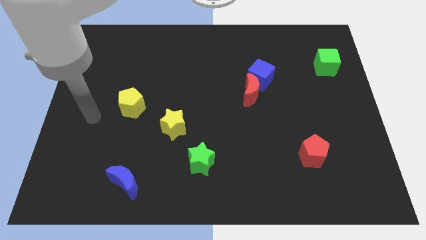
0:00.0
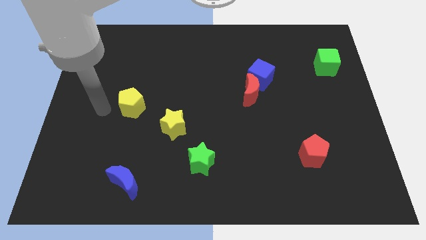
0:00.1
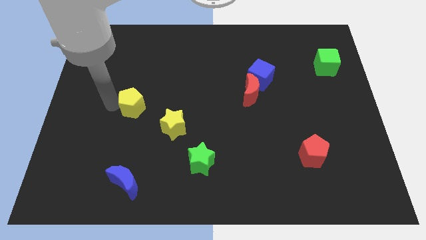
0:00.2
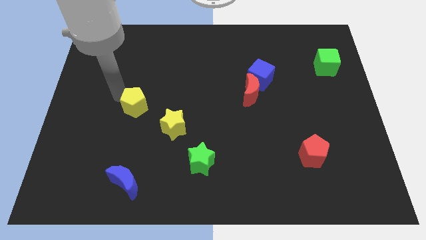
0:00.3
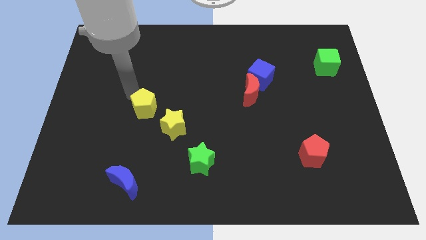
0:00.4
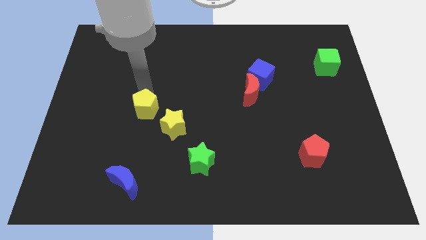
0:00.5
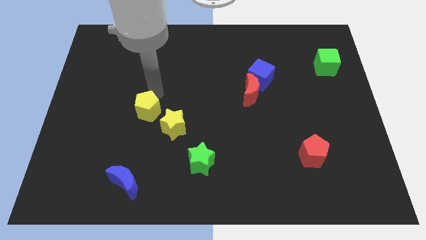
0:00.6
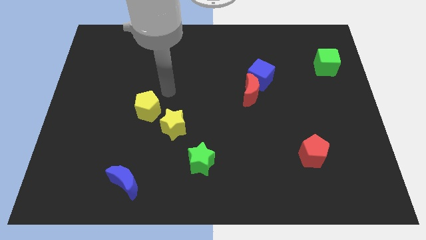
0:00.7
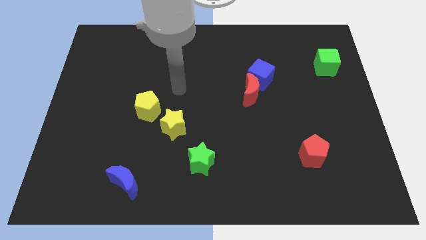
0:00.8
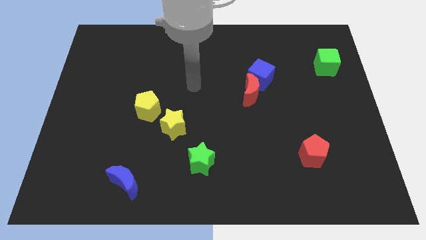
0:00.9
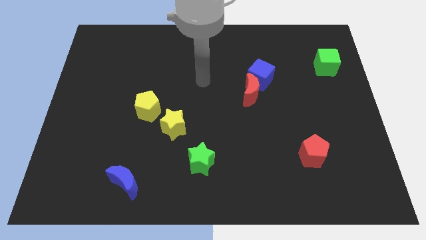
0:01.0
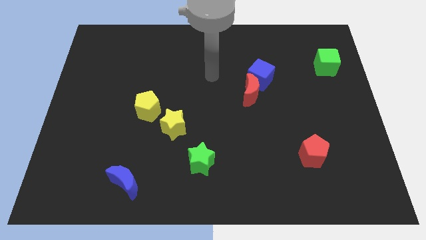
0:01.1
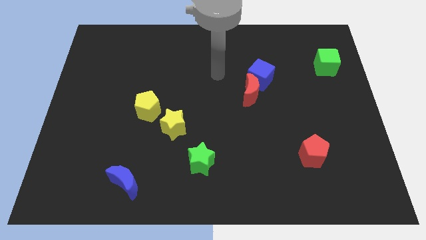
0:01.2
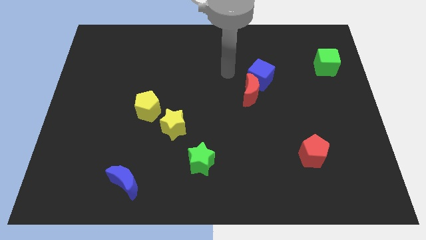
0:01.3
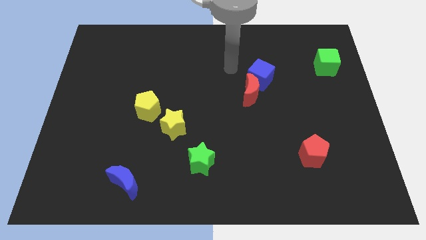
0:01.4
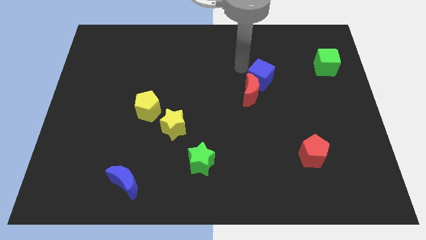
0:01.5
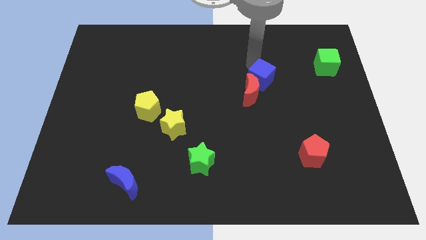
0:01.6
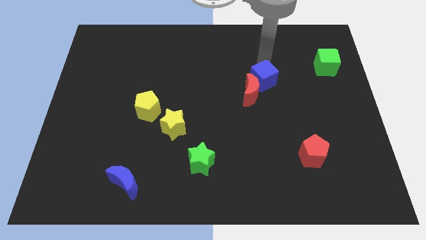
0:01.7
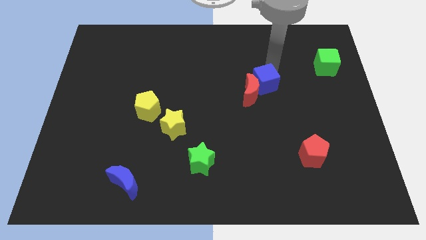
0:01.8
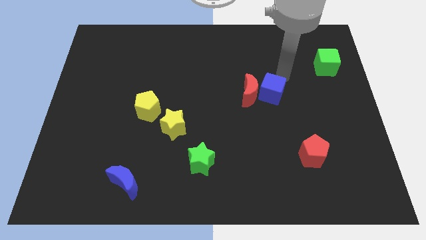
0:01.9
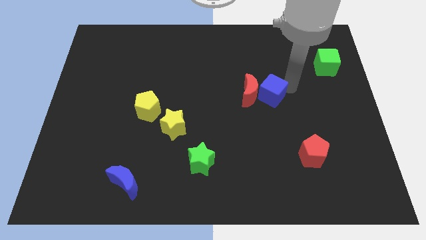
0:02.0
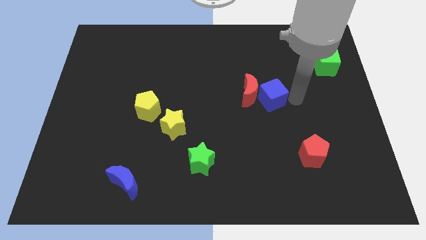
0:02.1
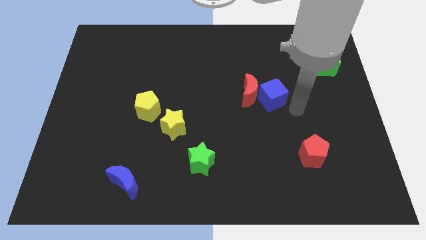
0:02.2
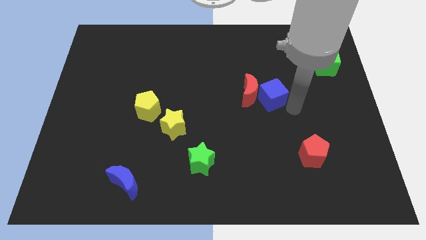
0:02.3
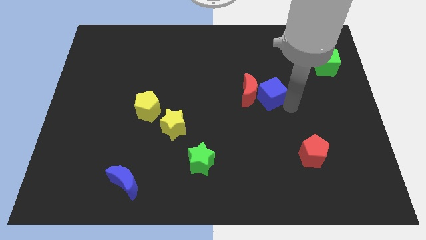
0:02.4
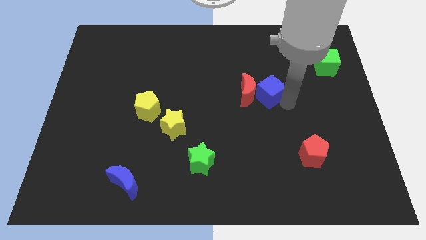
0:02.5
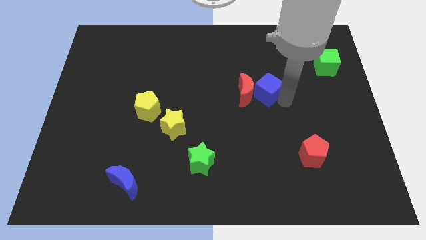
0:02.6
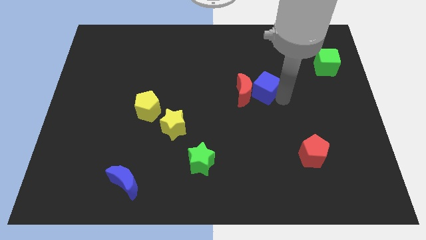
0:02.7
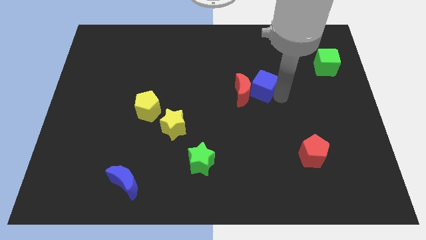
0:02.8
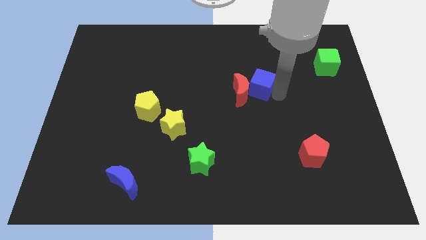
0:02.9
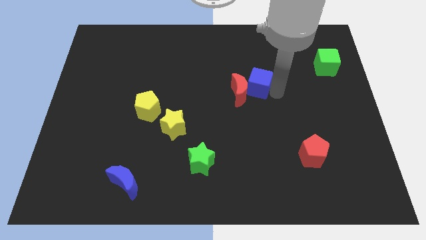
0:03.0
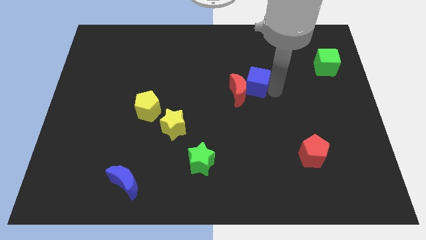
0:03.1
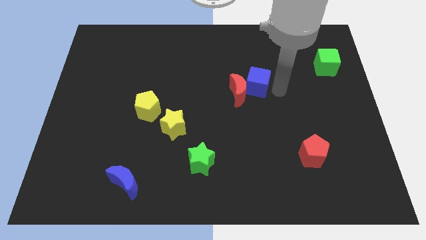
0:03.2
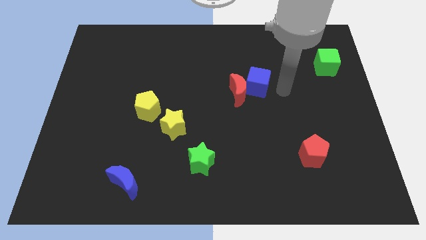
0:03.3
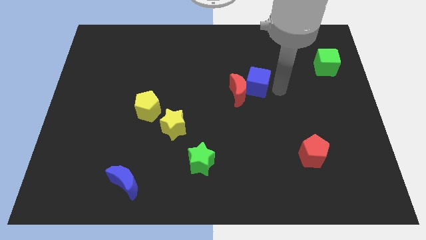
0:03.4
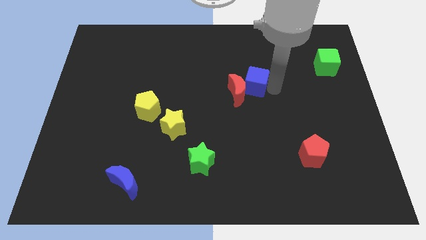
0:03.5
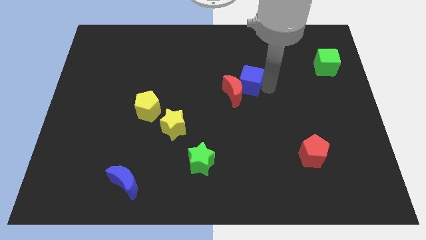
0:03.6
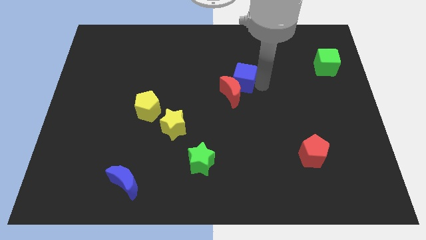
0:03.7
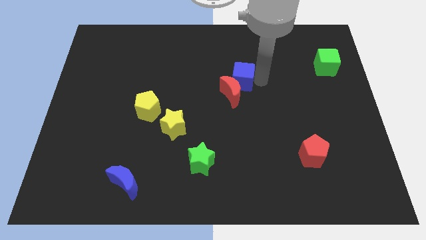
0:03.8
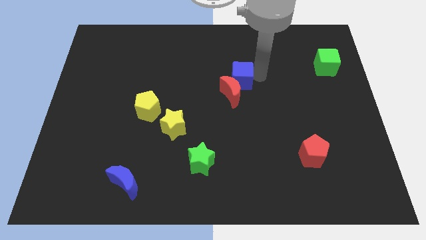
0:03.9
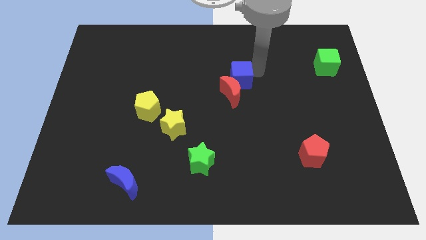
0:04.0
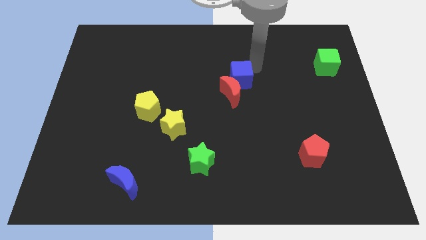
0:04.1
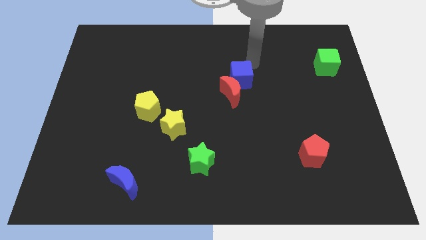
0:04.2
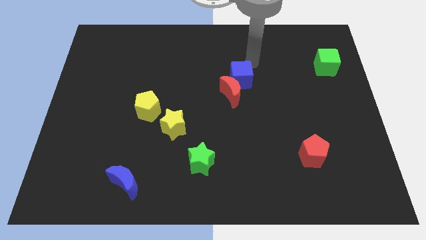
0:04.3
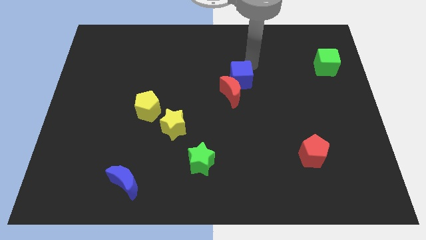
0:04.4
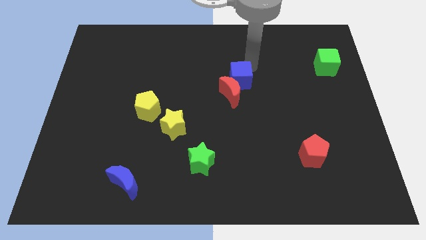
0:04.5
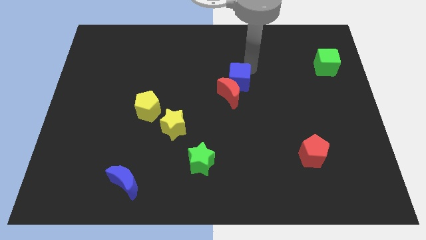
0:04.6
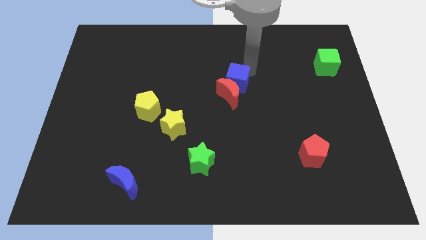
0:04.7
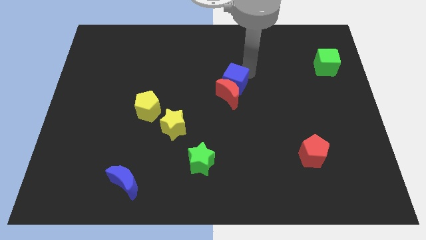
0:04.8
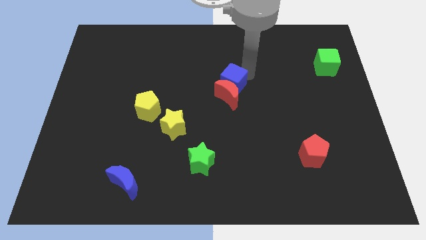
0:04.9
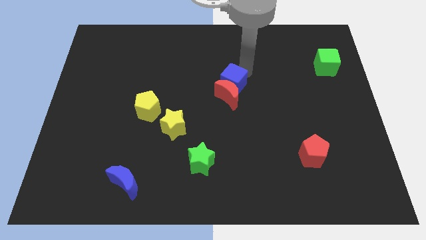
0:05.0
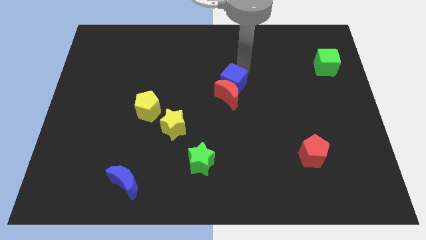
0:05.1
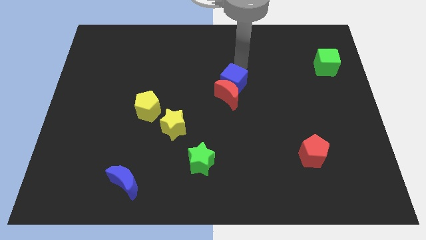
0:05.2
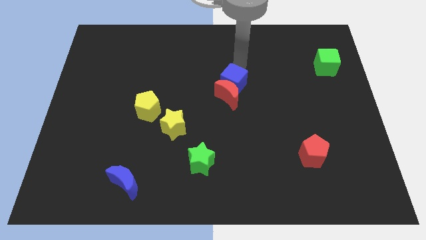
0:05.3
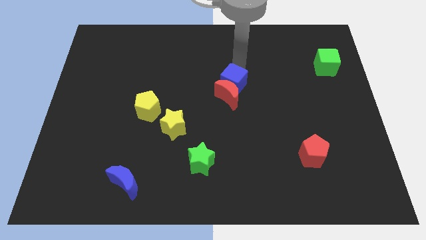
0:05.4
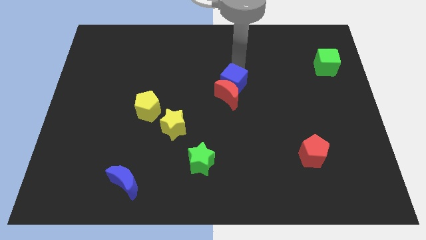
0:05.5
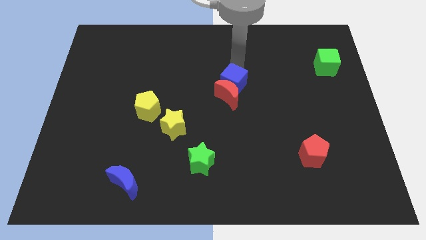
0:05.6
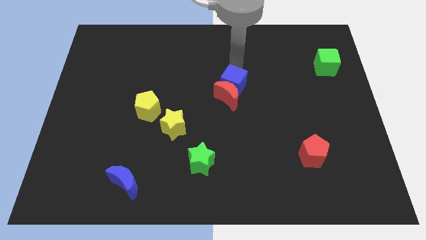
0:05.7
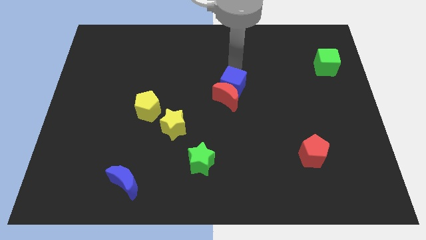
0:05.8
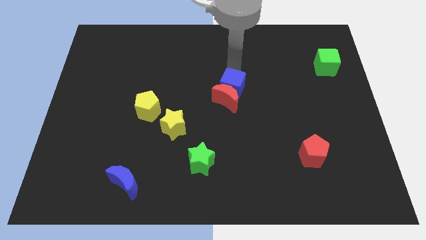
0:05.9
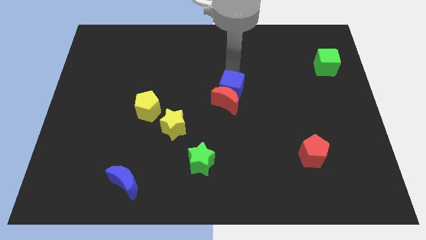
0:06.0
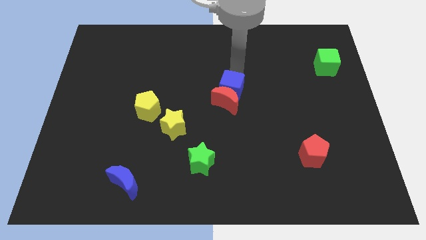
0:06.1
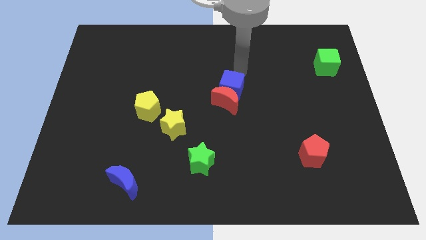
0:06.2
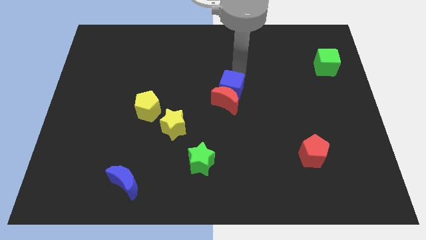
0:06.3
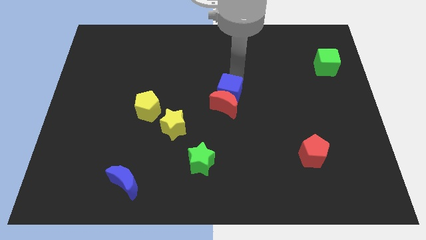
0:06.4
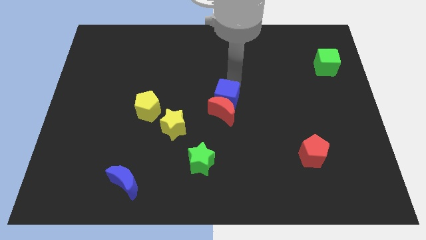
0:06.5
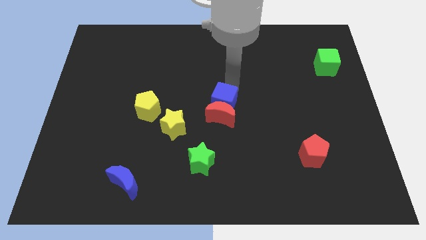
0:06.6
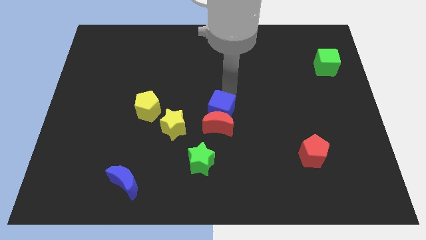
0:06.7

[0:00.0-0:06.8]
put the blue cube above the green star

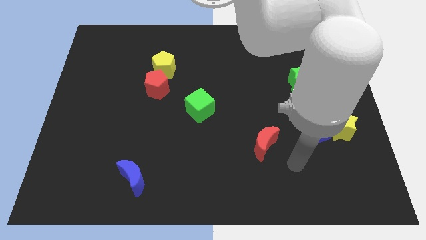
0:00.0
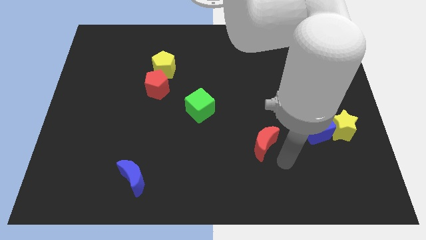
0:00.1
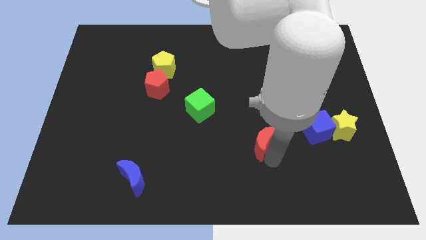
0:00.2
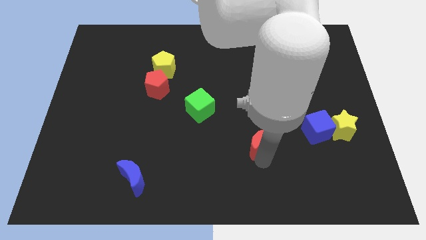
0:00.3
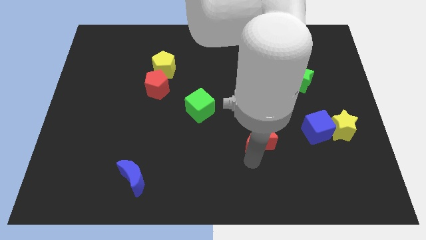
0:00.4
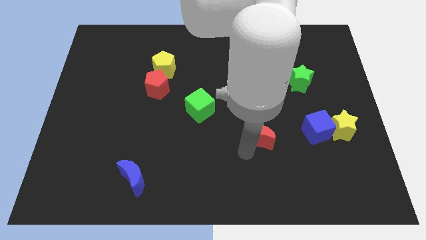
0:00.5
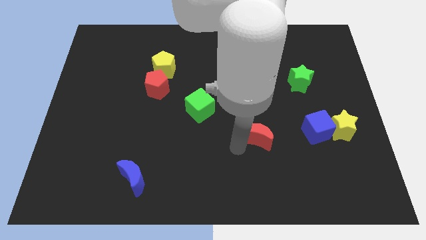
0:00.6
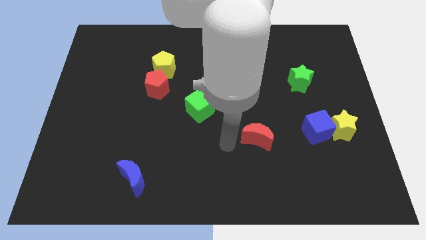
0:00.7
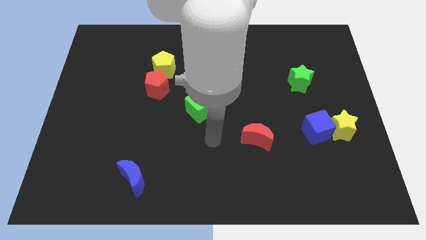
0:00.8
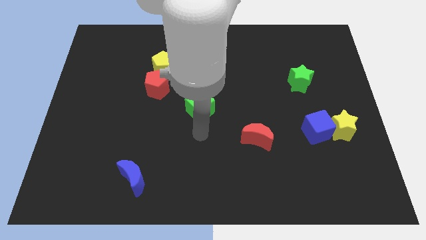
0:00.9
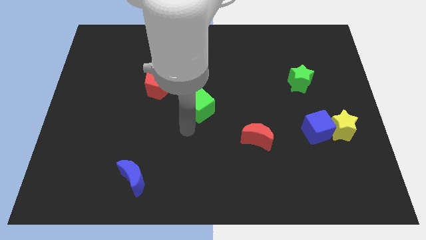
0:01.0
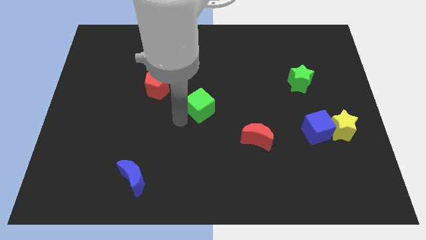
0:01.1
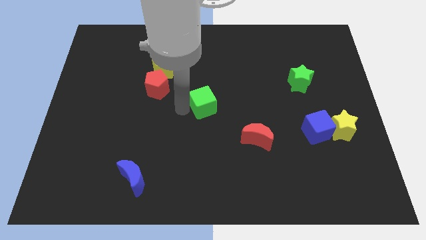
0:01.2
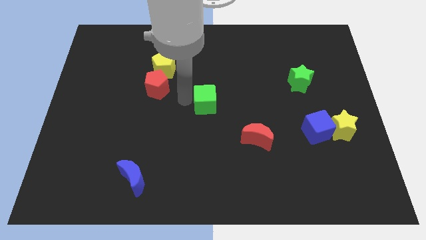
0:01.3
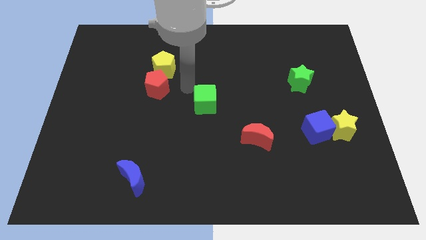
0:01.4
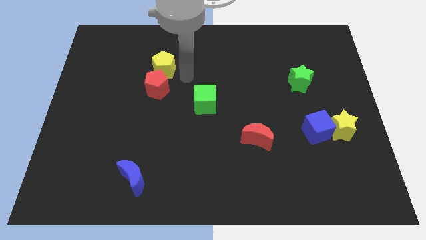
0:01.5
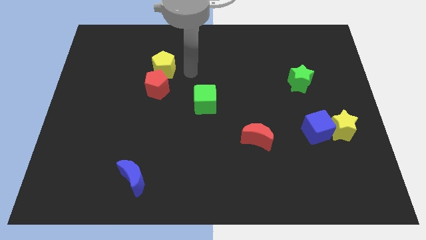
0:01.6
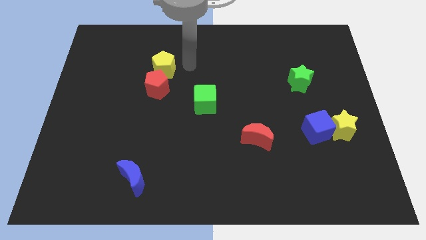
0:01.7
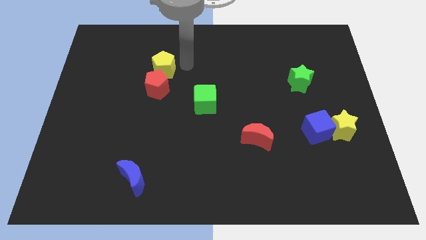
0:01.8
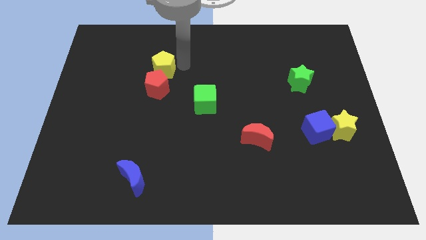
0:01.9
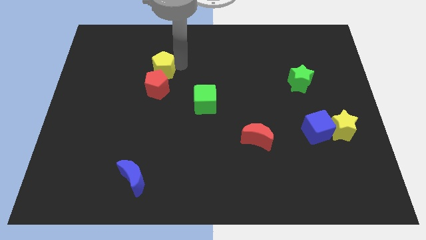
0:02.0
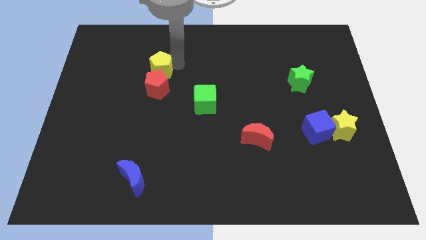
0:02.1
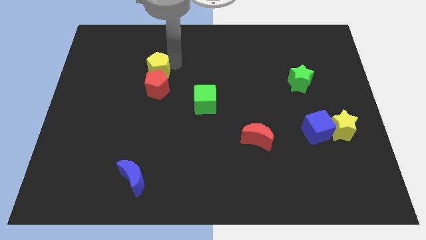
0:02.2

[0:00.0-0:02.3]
slide the yellow pentagon to the top left side of the red pentagon
